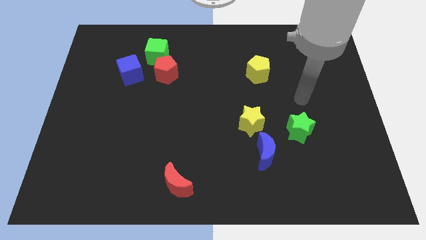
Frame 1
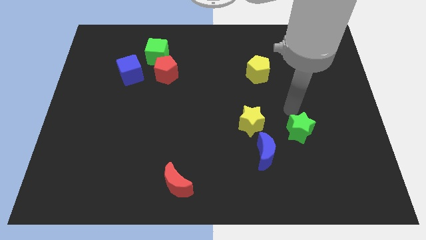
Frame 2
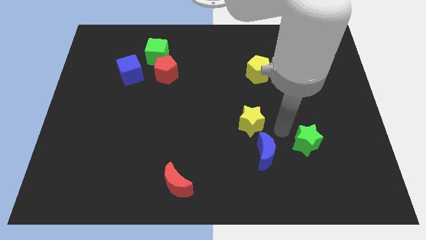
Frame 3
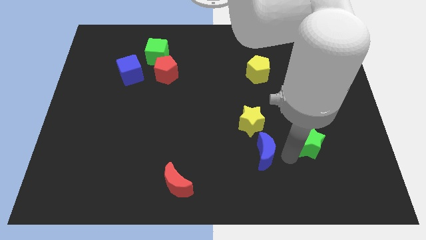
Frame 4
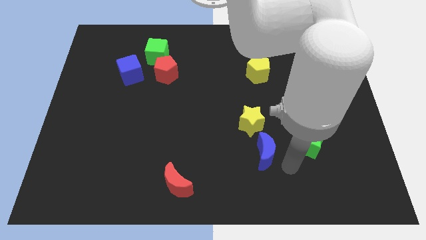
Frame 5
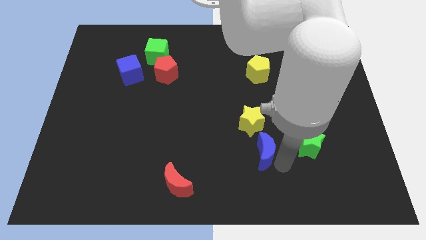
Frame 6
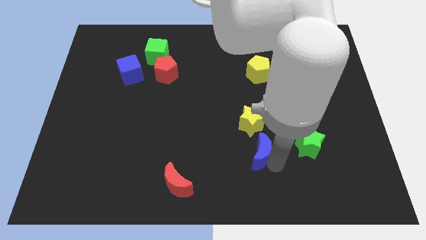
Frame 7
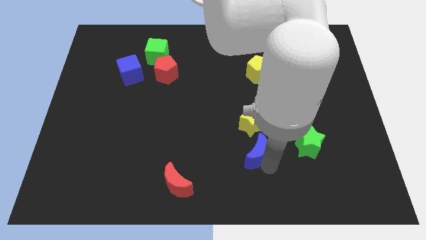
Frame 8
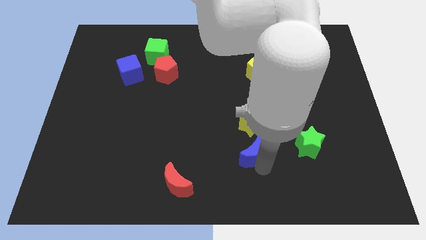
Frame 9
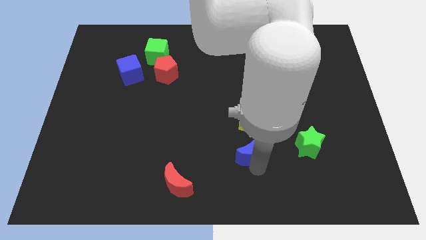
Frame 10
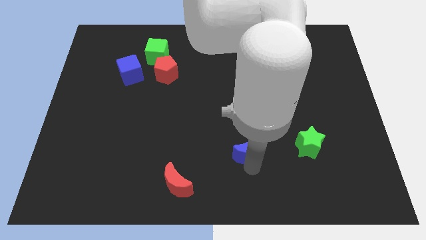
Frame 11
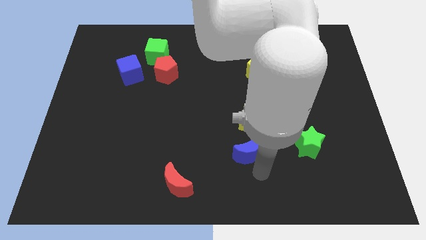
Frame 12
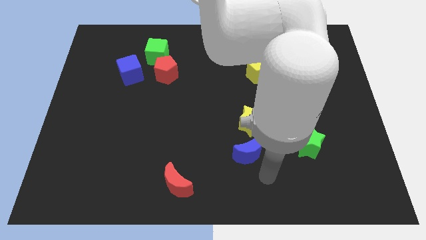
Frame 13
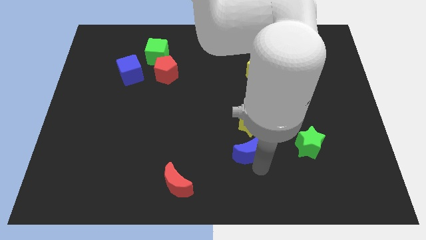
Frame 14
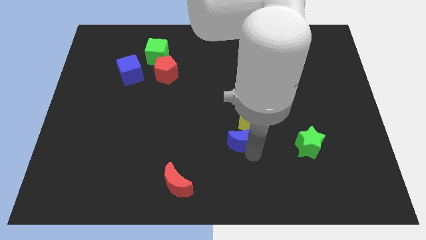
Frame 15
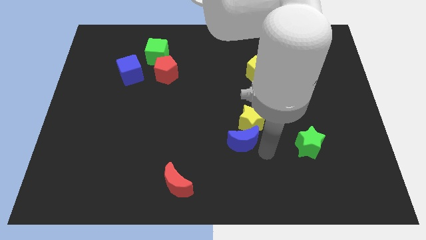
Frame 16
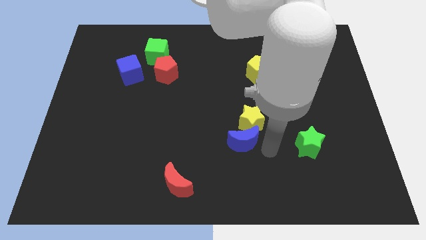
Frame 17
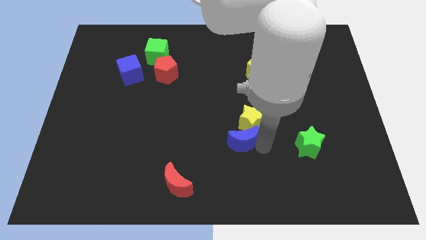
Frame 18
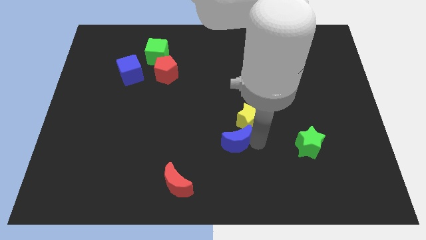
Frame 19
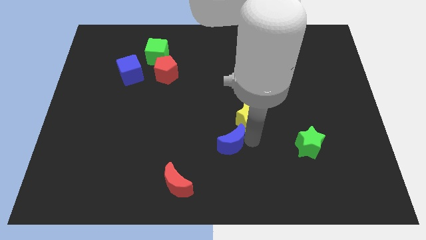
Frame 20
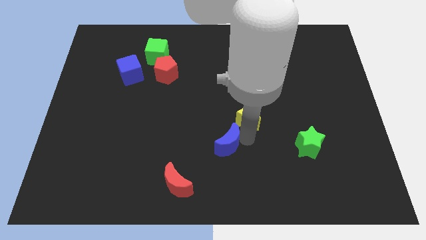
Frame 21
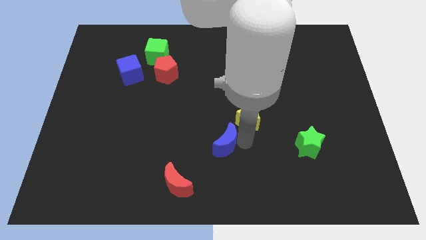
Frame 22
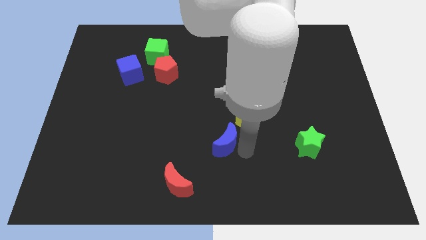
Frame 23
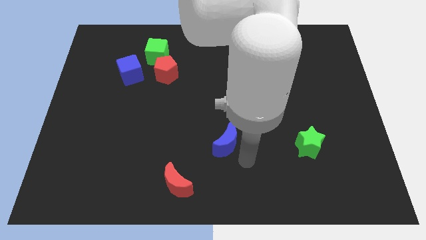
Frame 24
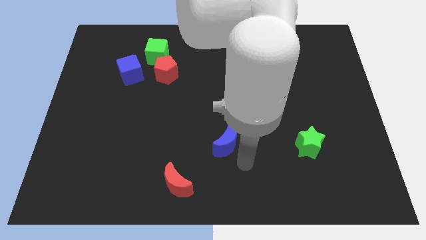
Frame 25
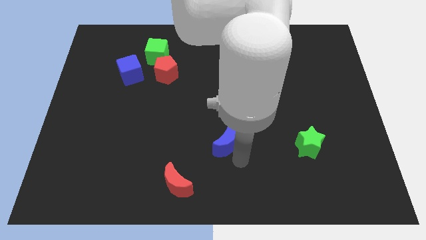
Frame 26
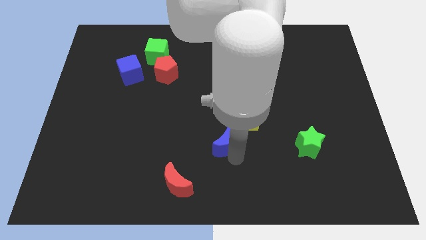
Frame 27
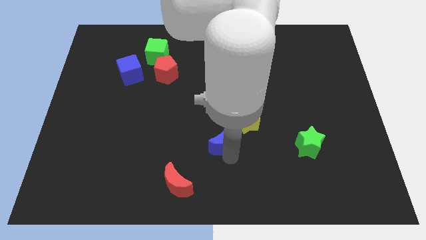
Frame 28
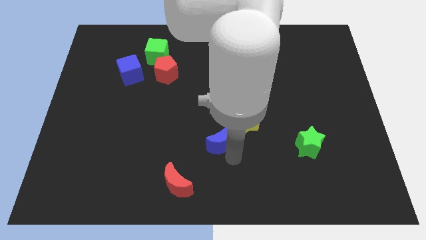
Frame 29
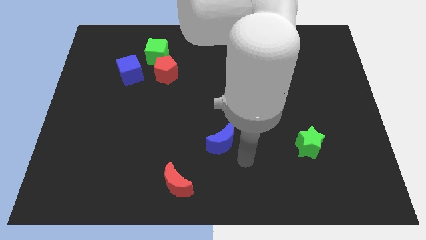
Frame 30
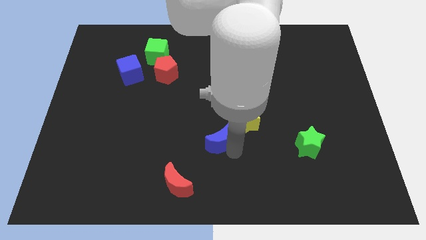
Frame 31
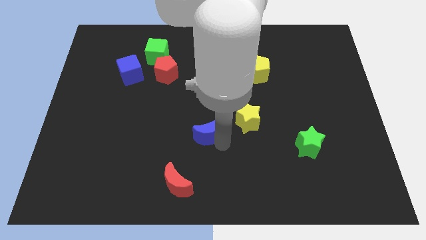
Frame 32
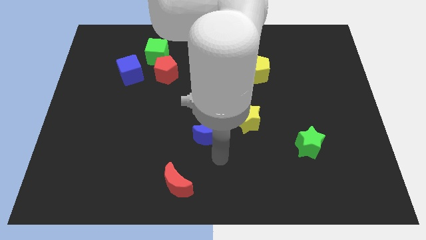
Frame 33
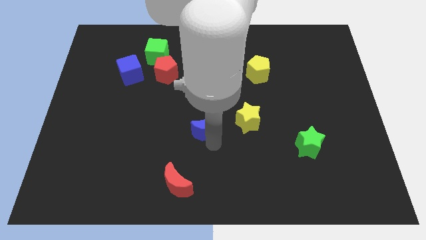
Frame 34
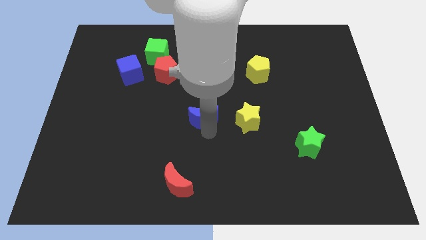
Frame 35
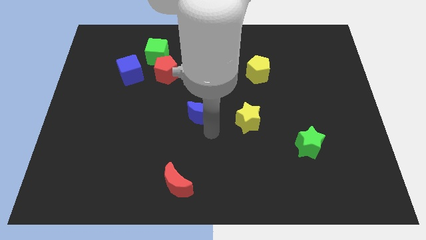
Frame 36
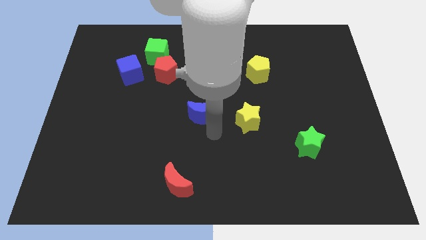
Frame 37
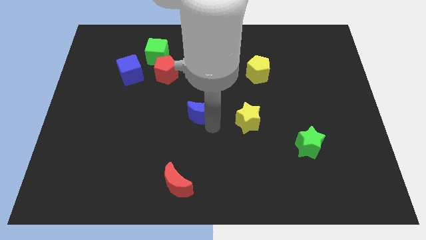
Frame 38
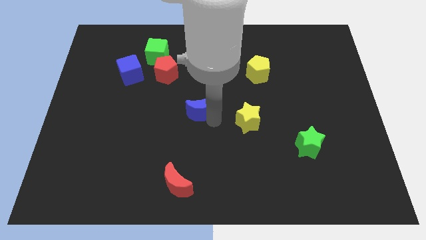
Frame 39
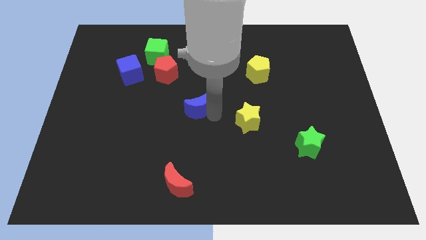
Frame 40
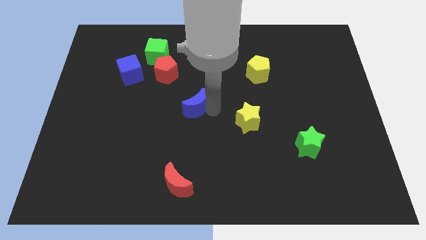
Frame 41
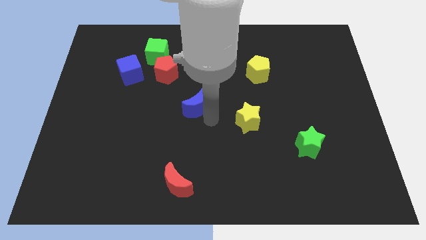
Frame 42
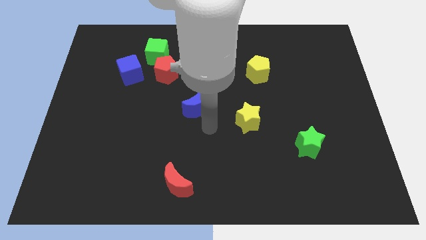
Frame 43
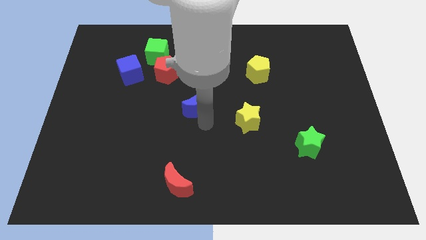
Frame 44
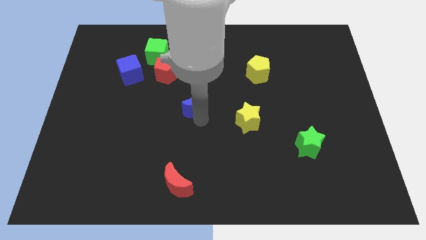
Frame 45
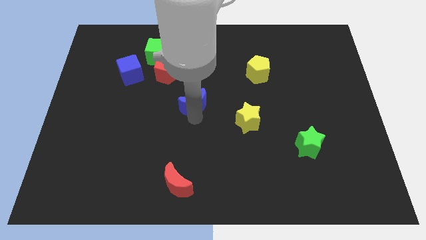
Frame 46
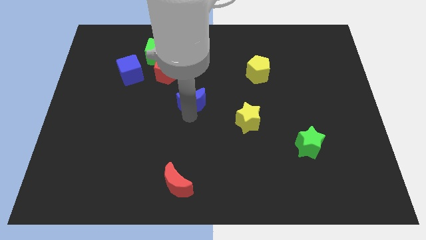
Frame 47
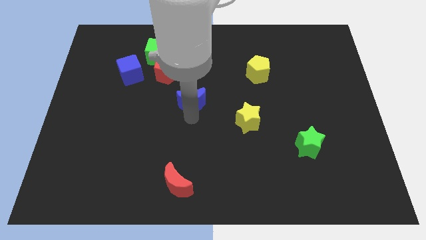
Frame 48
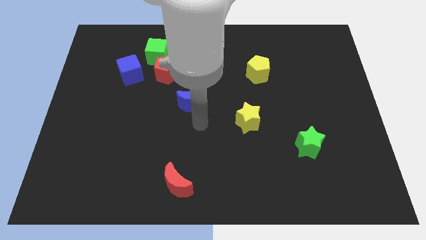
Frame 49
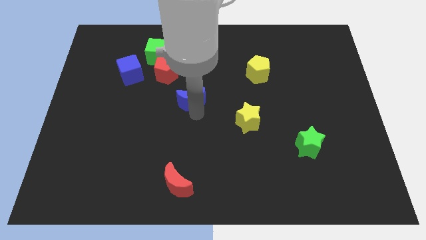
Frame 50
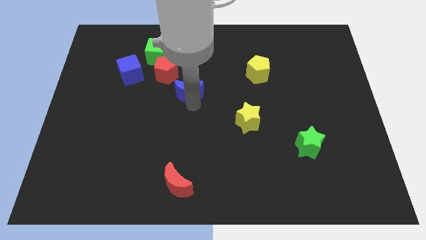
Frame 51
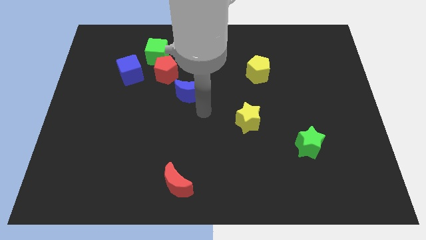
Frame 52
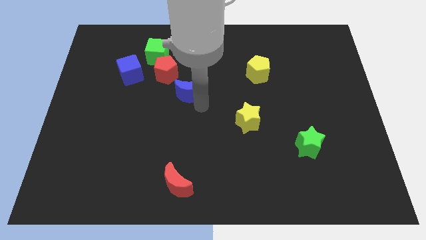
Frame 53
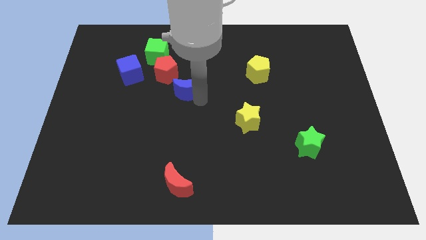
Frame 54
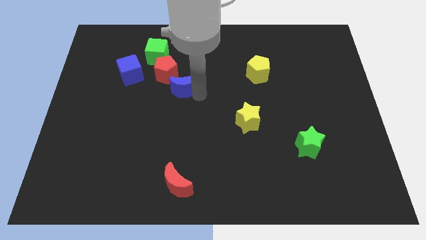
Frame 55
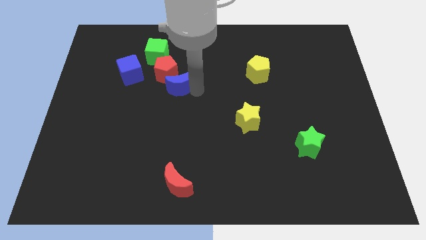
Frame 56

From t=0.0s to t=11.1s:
push the blue moon to the right side of the blue cube

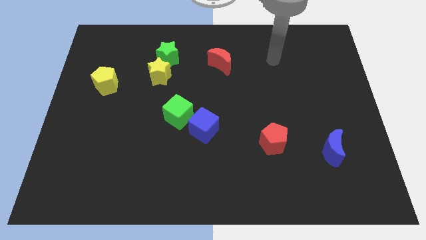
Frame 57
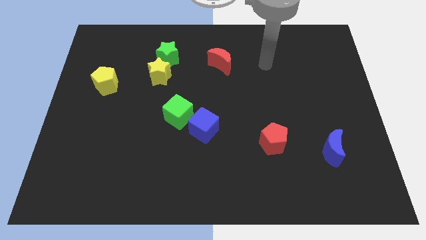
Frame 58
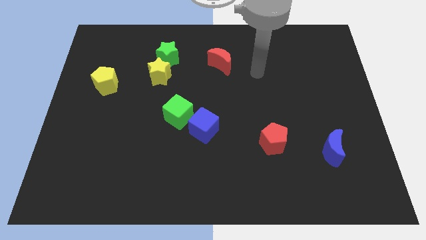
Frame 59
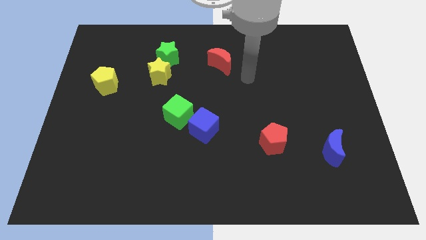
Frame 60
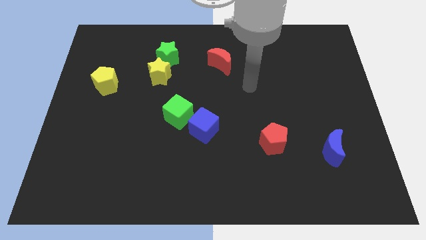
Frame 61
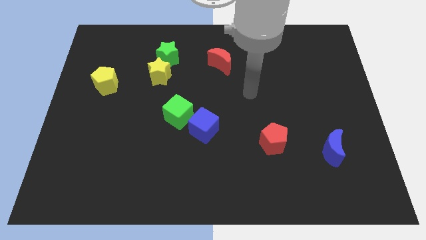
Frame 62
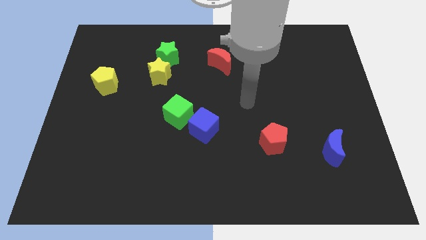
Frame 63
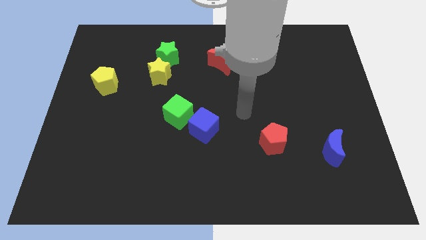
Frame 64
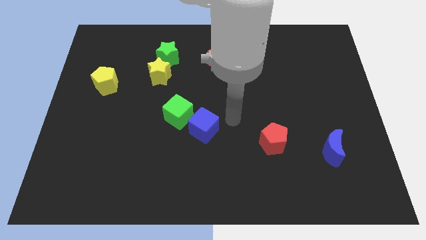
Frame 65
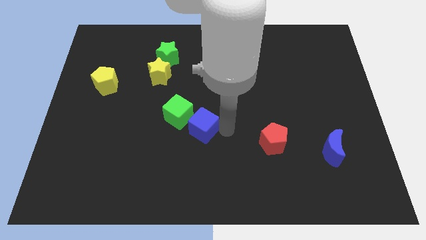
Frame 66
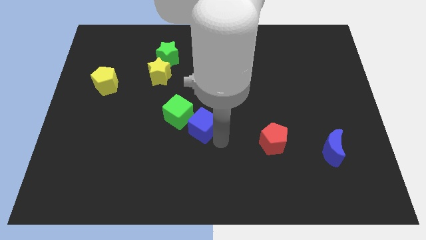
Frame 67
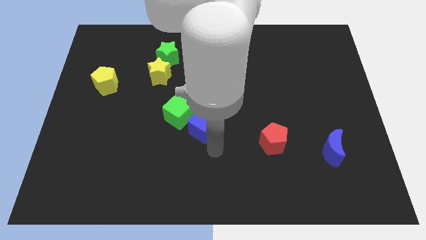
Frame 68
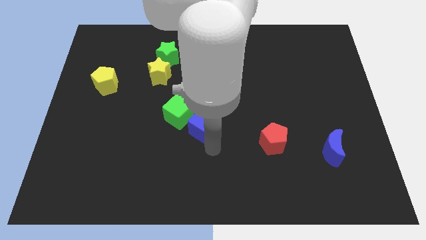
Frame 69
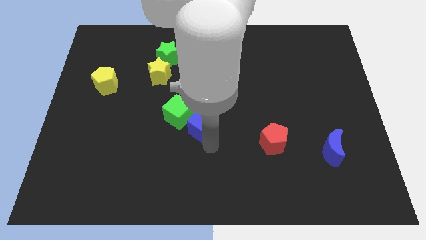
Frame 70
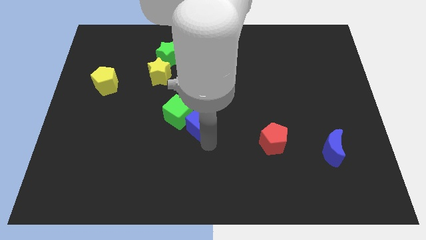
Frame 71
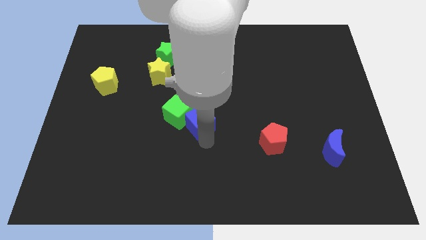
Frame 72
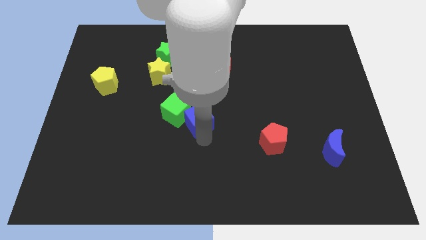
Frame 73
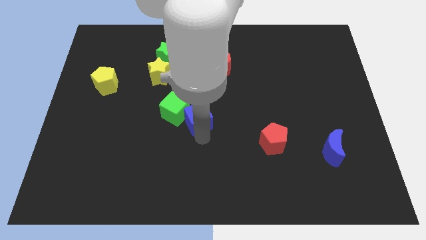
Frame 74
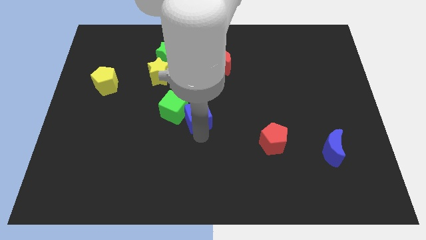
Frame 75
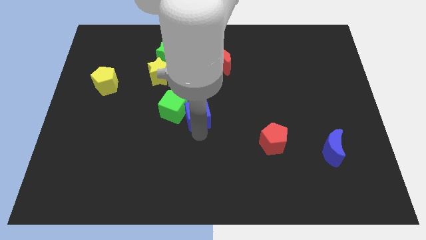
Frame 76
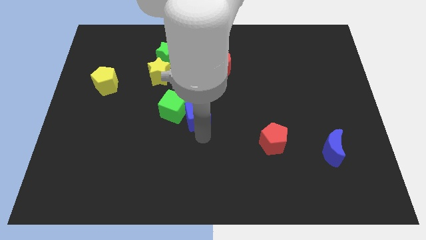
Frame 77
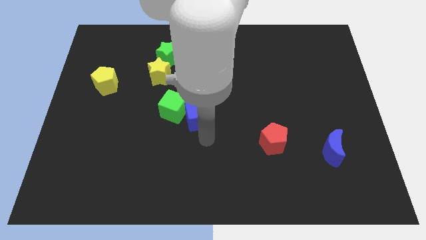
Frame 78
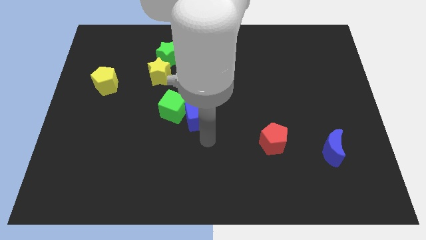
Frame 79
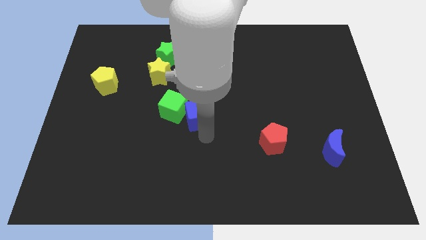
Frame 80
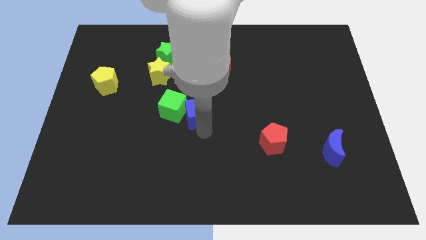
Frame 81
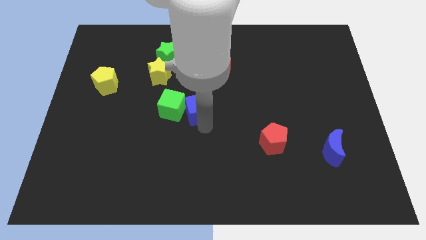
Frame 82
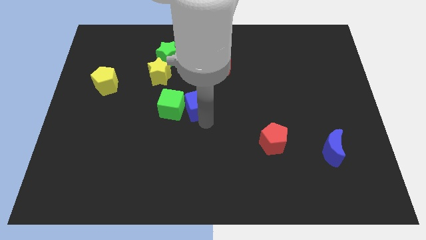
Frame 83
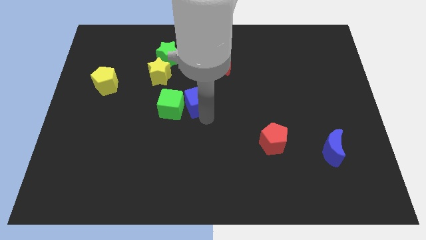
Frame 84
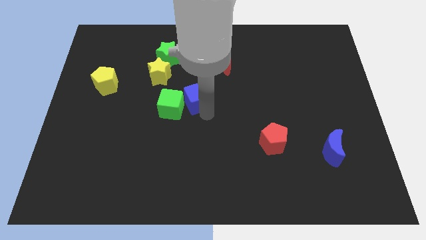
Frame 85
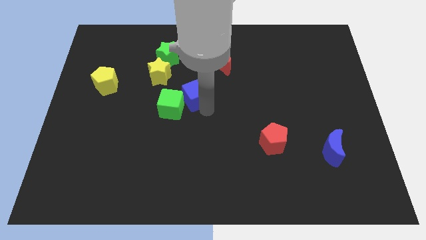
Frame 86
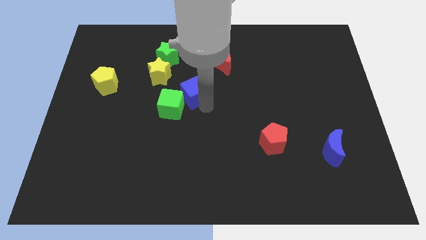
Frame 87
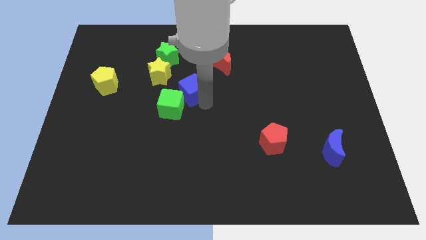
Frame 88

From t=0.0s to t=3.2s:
push the blue cube to the top of the green cube
